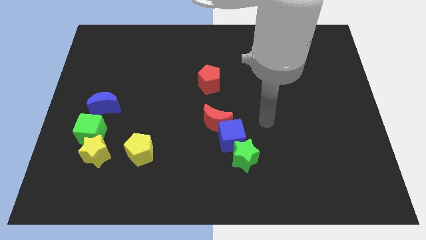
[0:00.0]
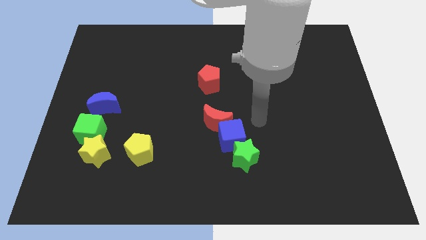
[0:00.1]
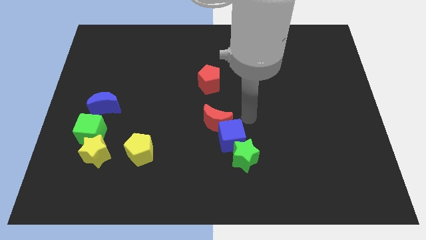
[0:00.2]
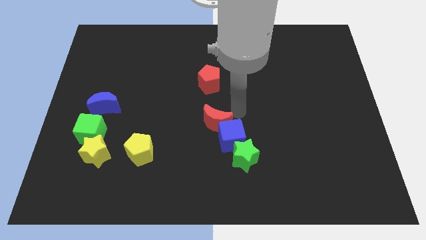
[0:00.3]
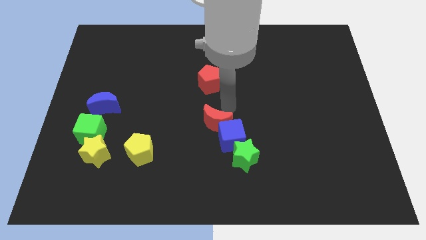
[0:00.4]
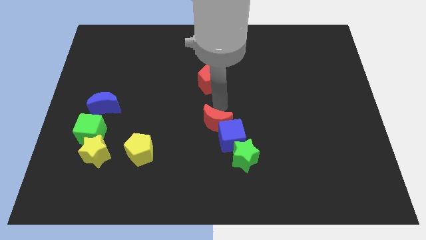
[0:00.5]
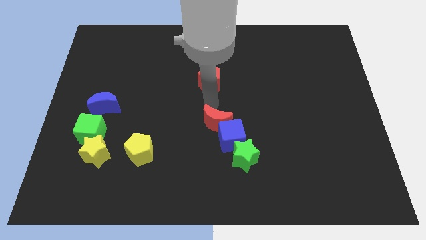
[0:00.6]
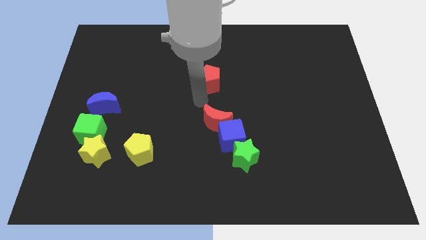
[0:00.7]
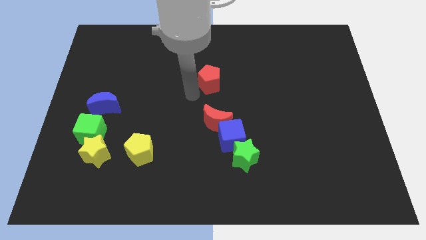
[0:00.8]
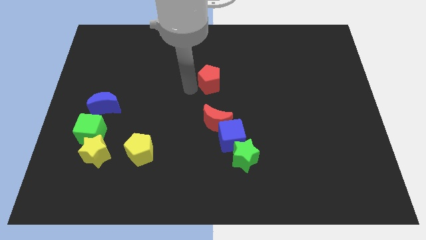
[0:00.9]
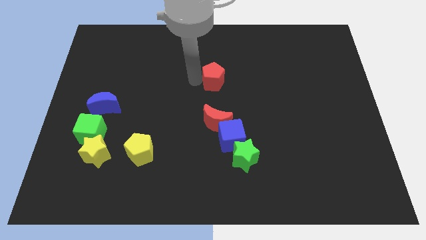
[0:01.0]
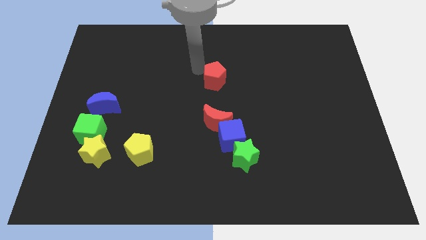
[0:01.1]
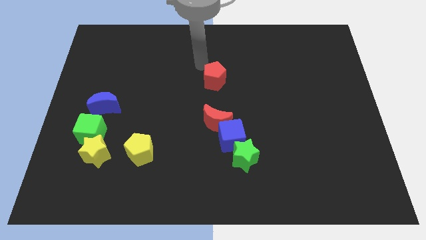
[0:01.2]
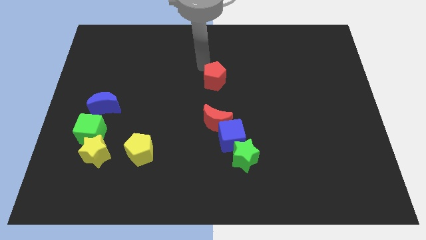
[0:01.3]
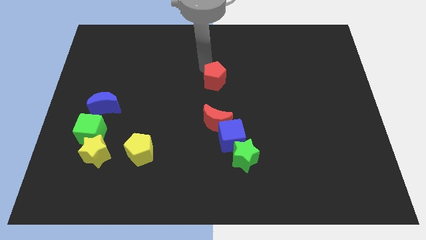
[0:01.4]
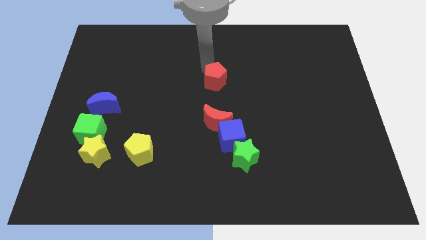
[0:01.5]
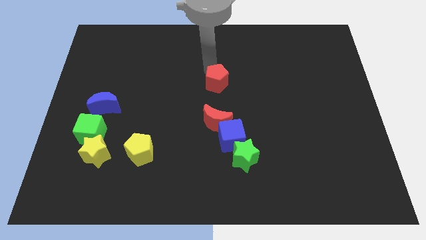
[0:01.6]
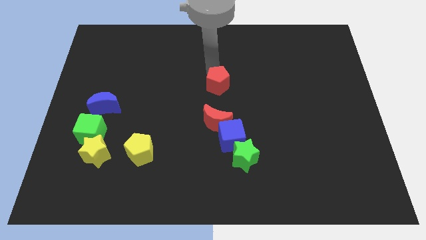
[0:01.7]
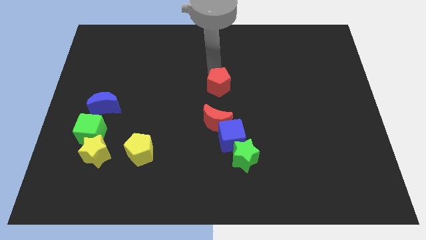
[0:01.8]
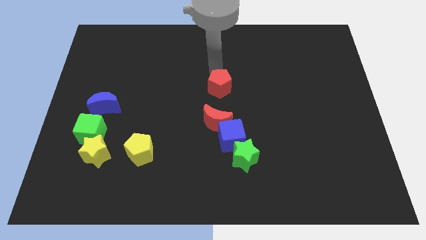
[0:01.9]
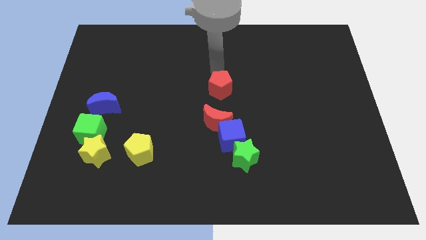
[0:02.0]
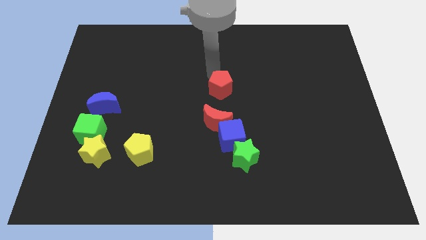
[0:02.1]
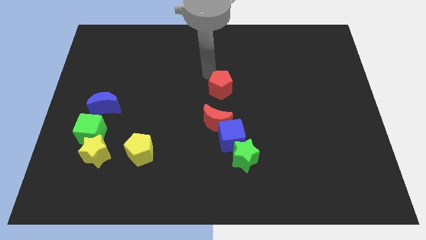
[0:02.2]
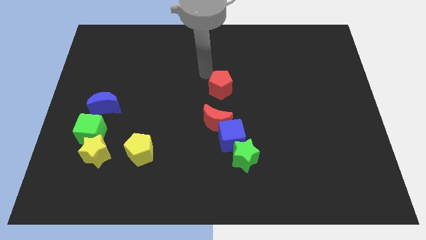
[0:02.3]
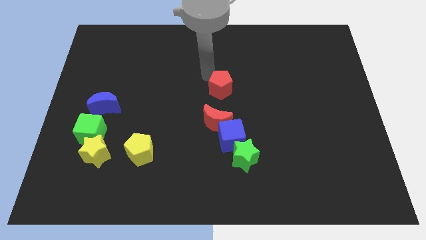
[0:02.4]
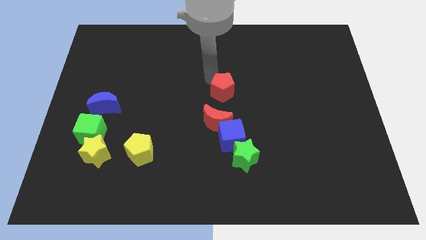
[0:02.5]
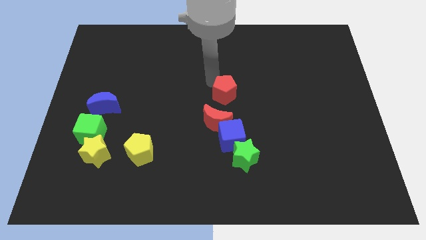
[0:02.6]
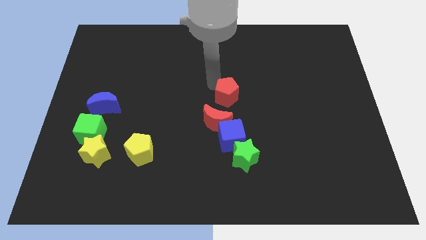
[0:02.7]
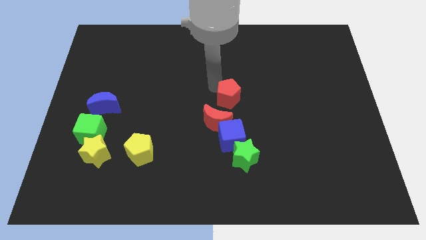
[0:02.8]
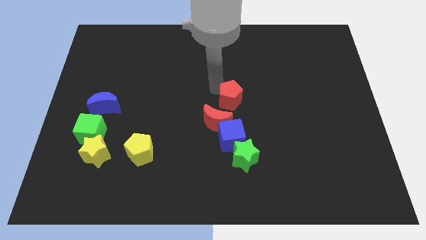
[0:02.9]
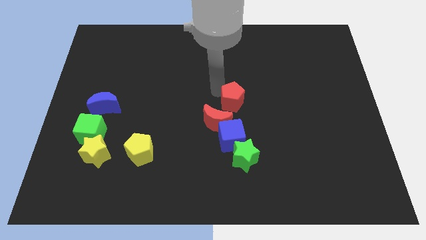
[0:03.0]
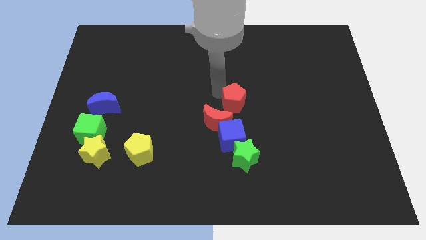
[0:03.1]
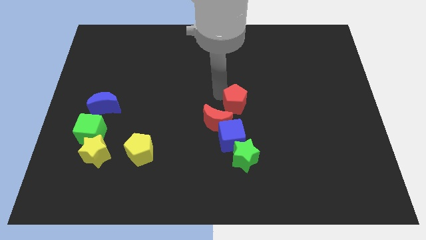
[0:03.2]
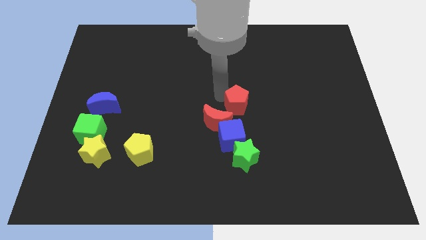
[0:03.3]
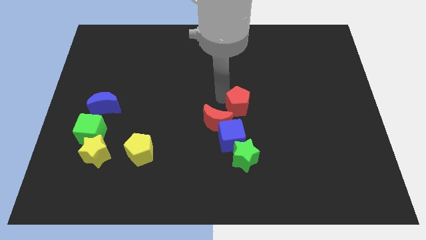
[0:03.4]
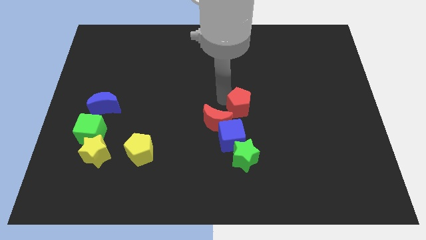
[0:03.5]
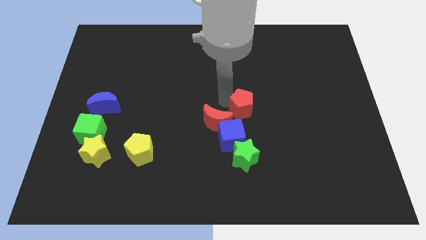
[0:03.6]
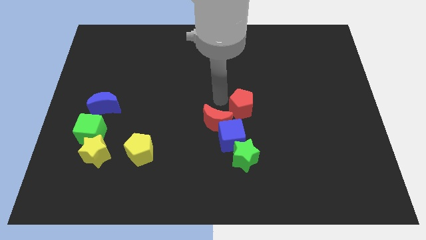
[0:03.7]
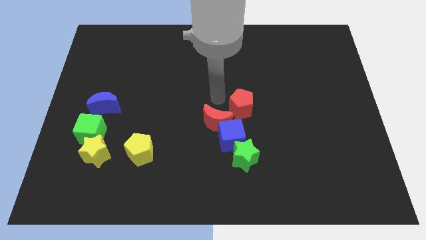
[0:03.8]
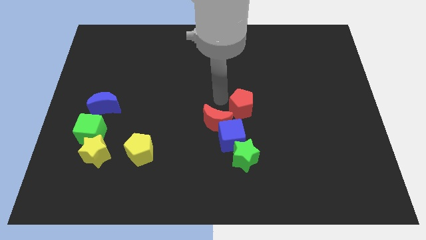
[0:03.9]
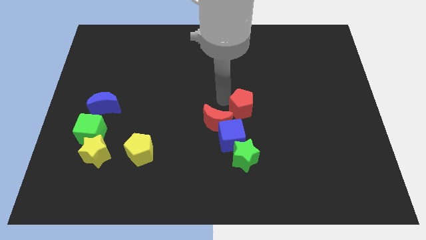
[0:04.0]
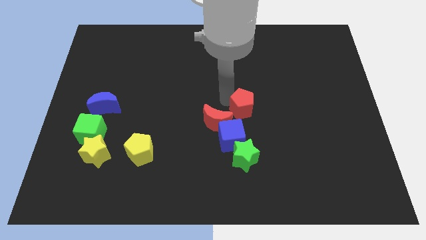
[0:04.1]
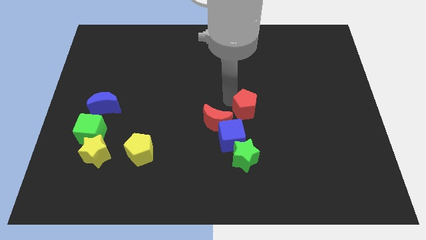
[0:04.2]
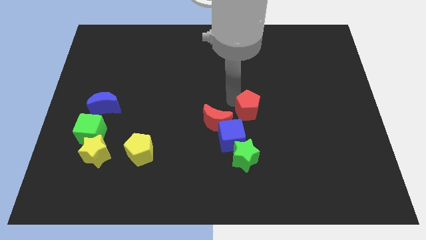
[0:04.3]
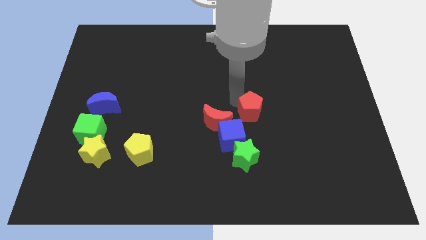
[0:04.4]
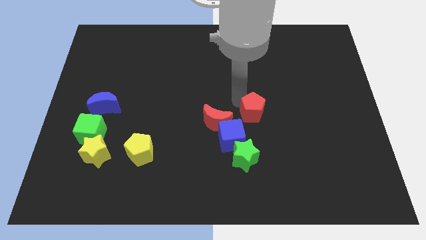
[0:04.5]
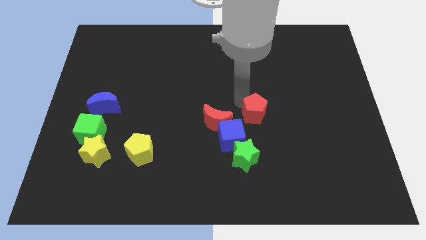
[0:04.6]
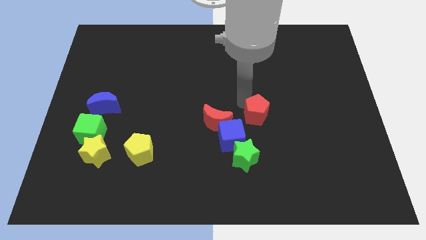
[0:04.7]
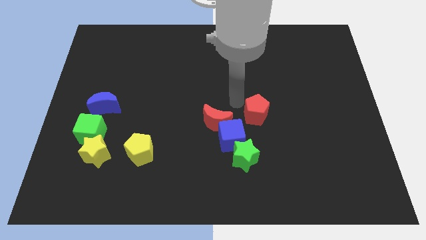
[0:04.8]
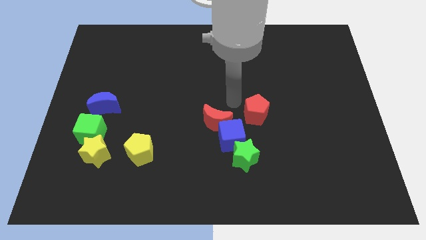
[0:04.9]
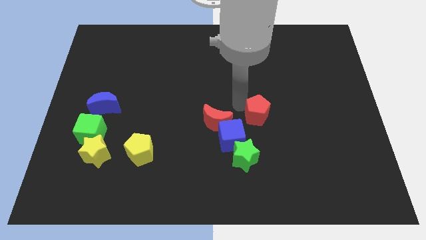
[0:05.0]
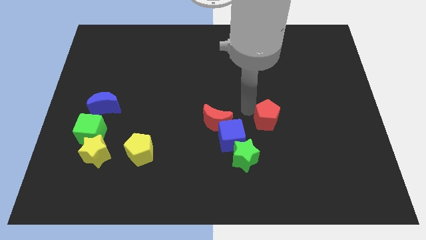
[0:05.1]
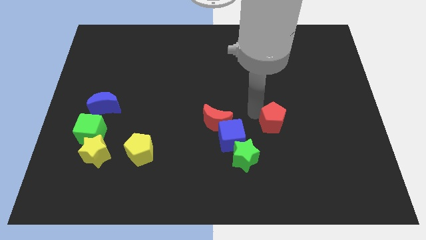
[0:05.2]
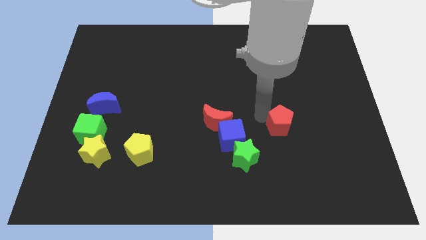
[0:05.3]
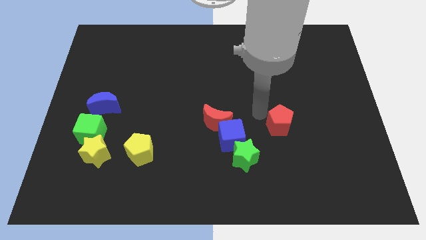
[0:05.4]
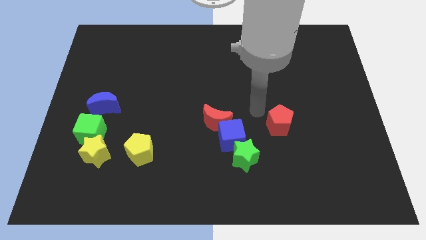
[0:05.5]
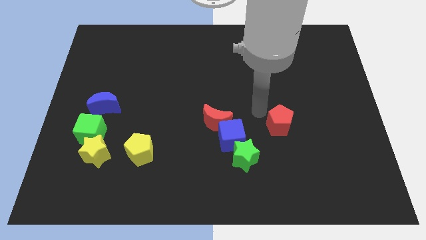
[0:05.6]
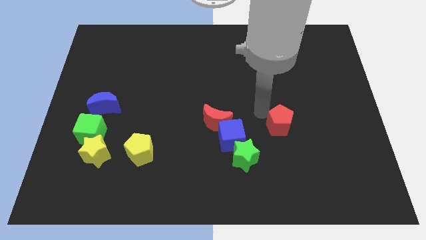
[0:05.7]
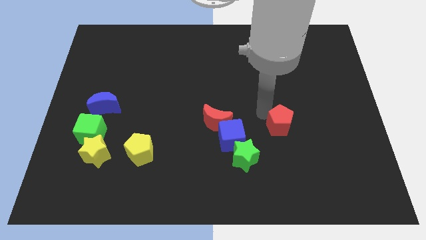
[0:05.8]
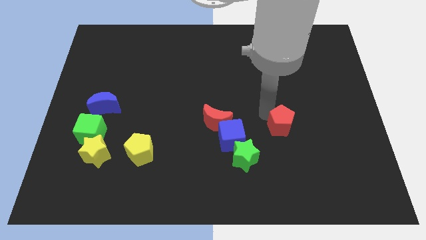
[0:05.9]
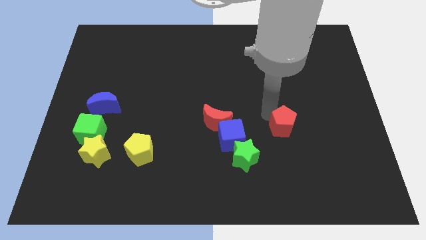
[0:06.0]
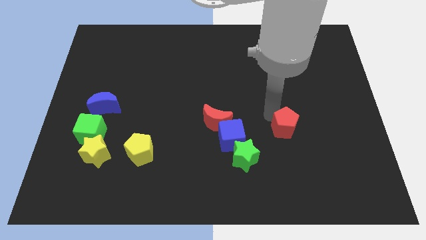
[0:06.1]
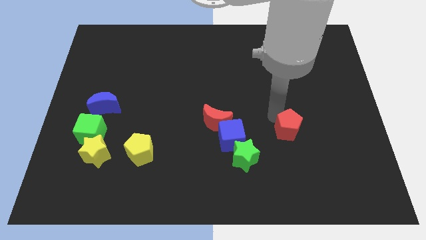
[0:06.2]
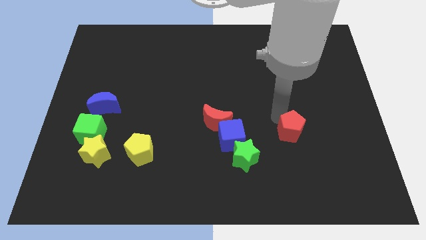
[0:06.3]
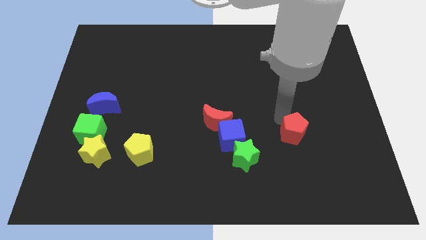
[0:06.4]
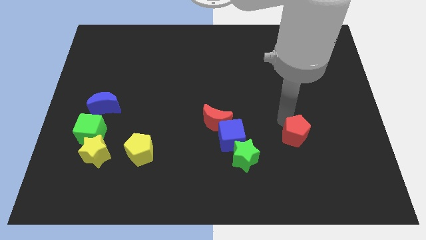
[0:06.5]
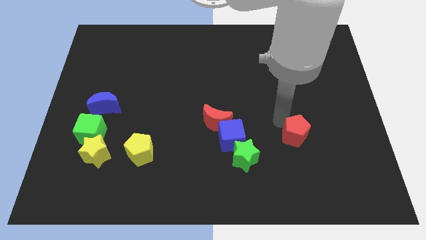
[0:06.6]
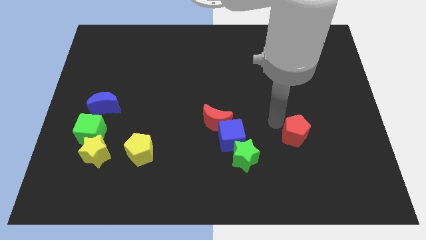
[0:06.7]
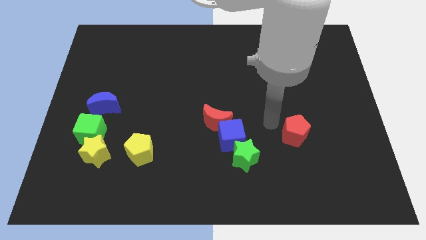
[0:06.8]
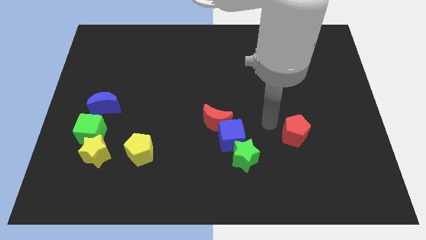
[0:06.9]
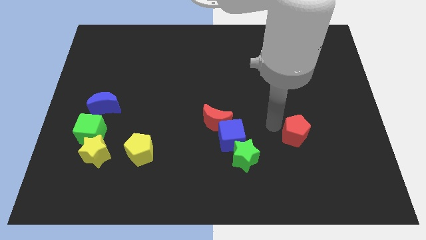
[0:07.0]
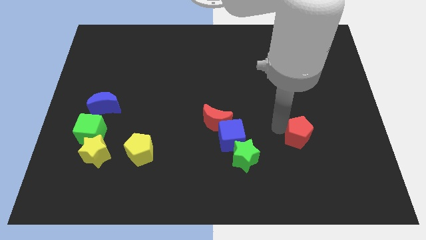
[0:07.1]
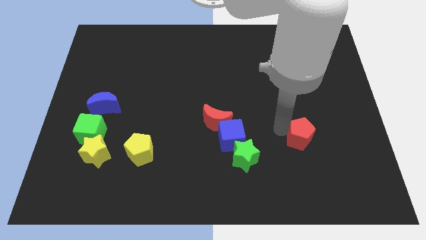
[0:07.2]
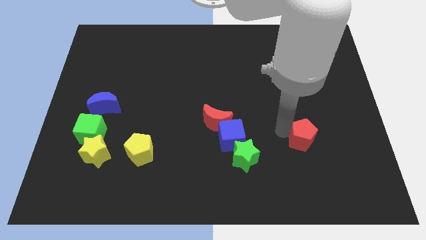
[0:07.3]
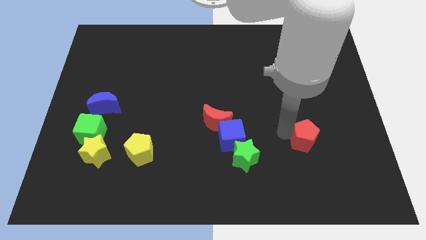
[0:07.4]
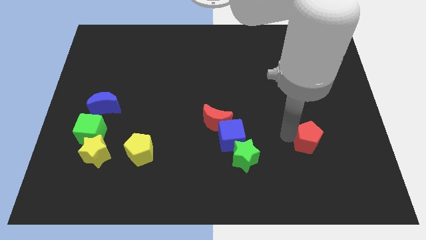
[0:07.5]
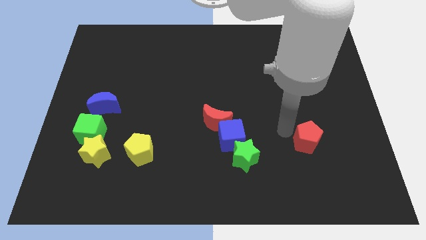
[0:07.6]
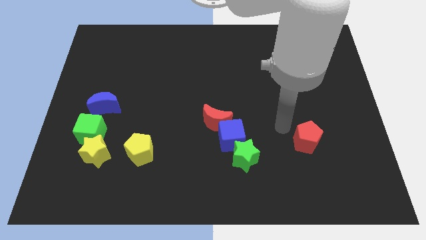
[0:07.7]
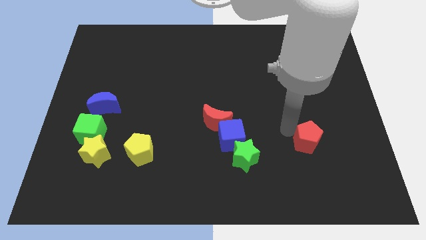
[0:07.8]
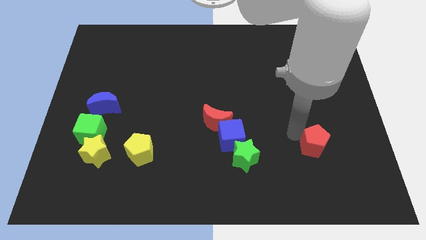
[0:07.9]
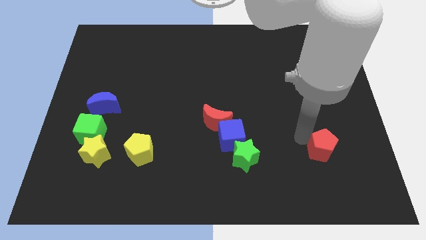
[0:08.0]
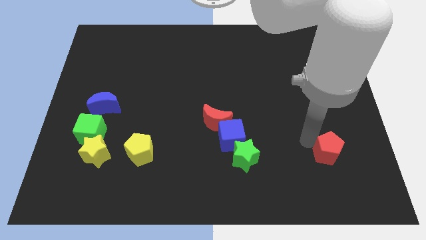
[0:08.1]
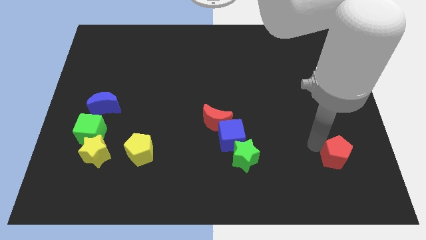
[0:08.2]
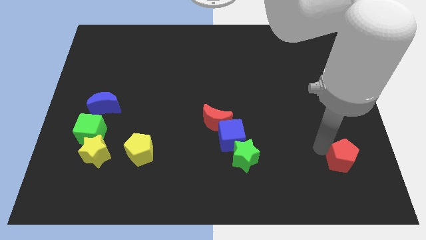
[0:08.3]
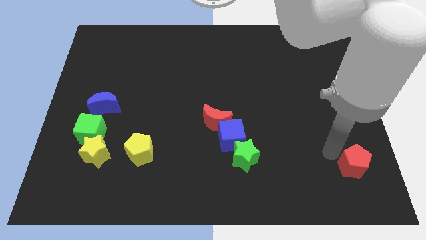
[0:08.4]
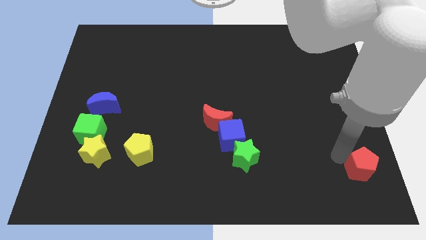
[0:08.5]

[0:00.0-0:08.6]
move the red pentagon to the bottom right corner
